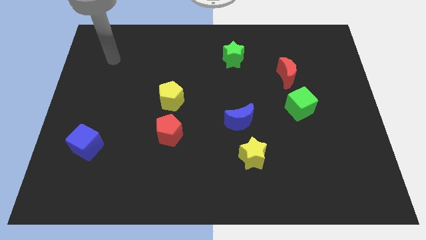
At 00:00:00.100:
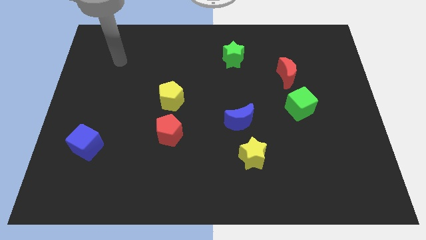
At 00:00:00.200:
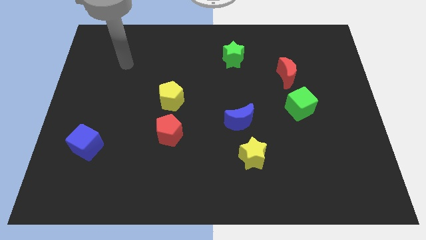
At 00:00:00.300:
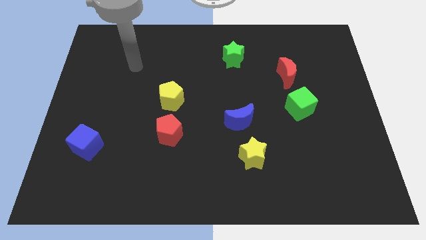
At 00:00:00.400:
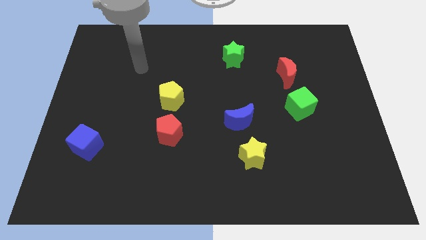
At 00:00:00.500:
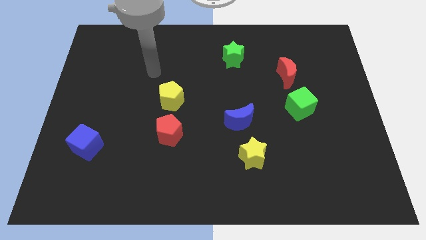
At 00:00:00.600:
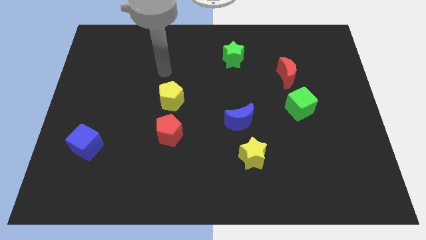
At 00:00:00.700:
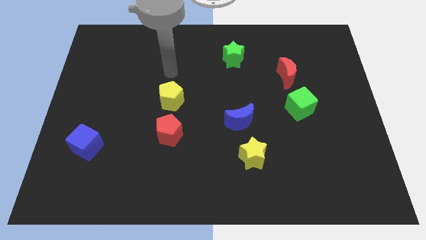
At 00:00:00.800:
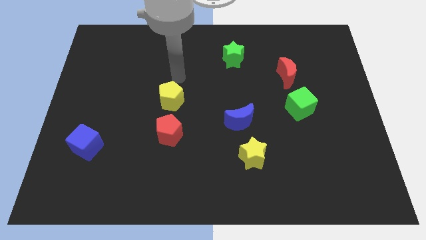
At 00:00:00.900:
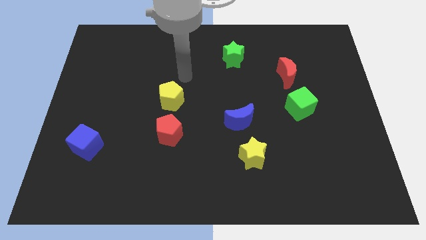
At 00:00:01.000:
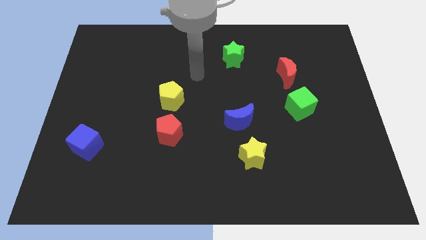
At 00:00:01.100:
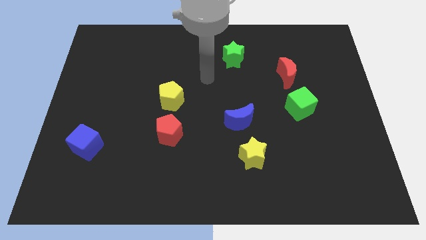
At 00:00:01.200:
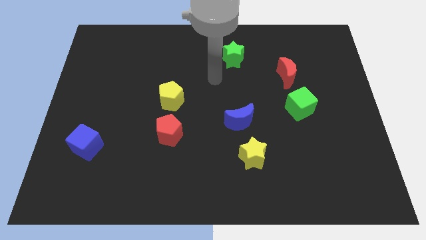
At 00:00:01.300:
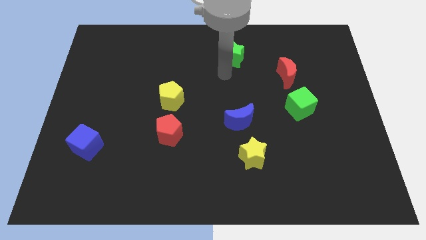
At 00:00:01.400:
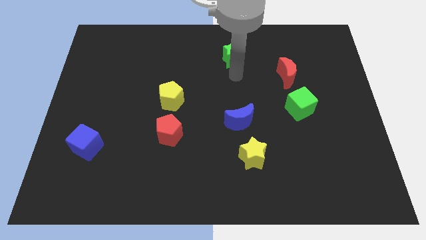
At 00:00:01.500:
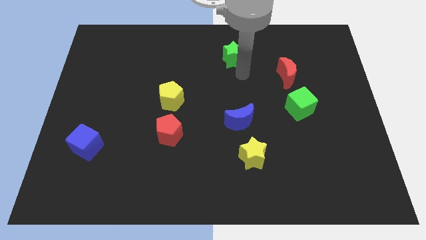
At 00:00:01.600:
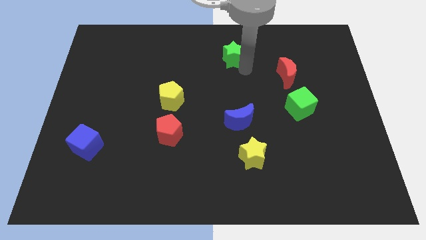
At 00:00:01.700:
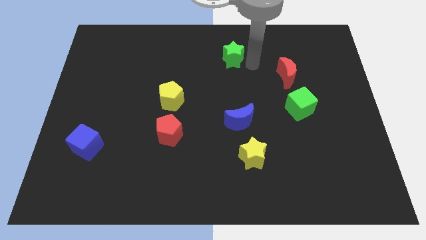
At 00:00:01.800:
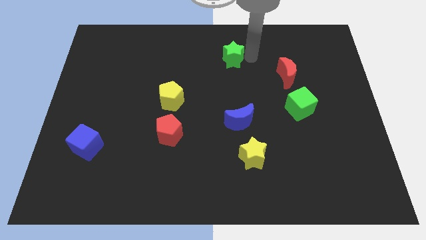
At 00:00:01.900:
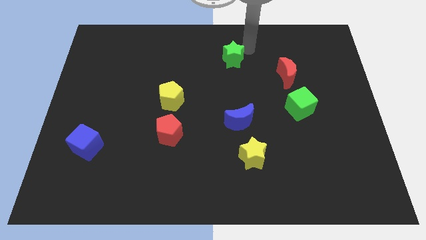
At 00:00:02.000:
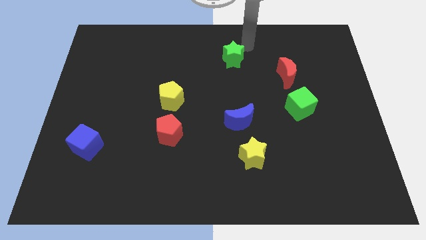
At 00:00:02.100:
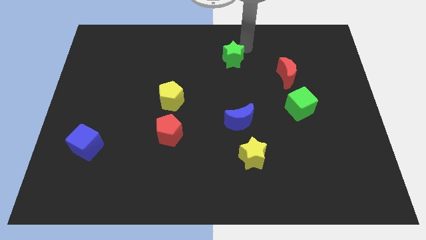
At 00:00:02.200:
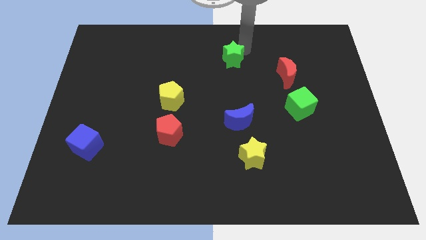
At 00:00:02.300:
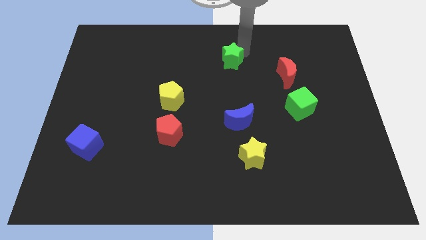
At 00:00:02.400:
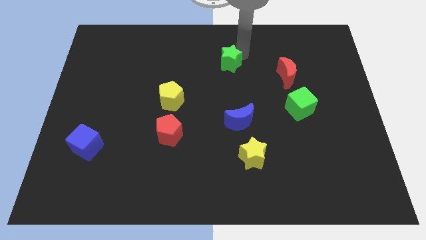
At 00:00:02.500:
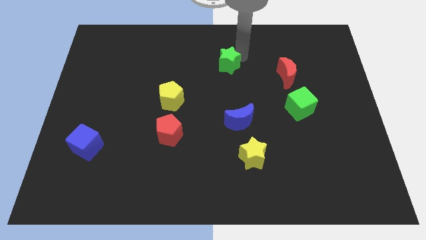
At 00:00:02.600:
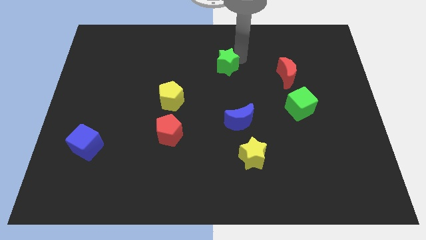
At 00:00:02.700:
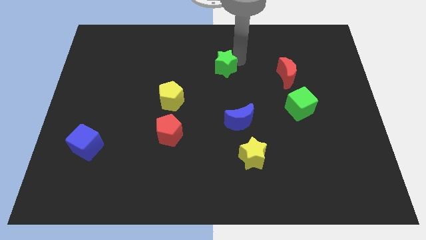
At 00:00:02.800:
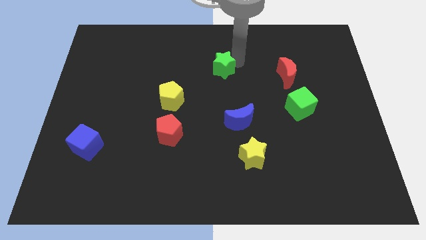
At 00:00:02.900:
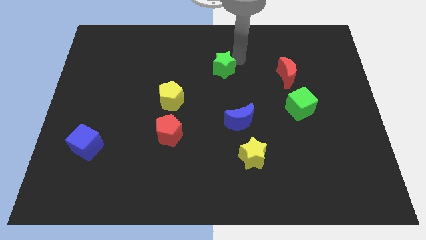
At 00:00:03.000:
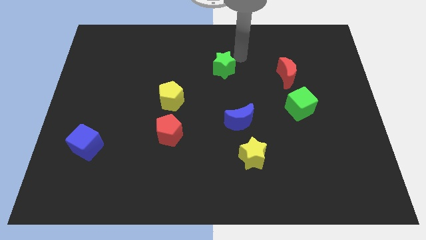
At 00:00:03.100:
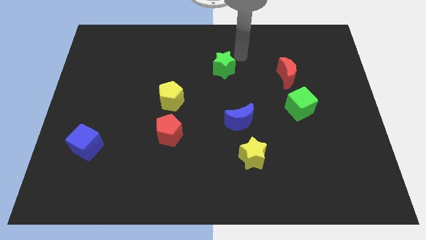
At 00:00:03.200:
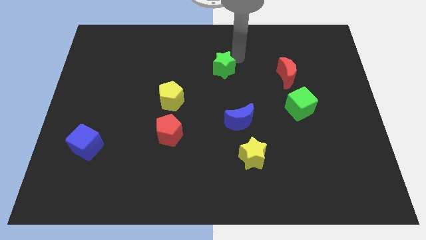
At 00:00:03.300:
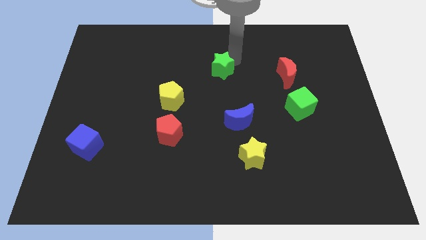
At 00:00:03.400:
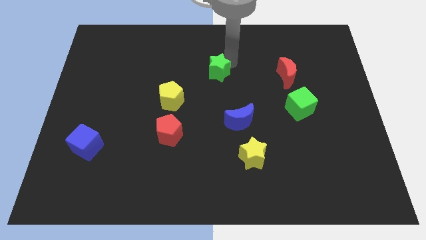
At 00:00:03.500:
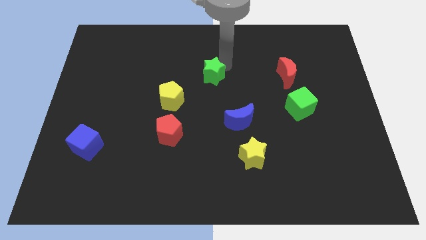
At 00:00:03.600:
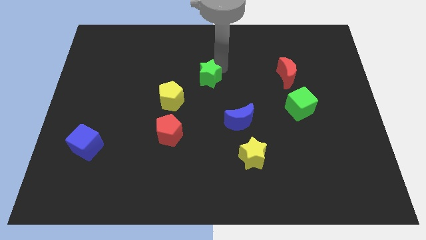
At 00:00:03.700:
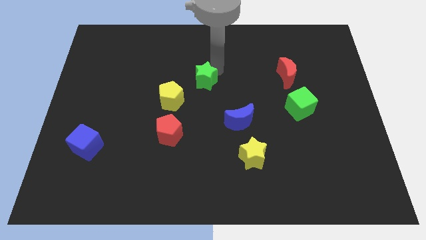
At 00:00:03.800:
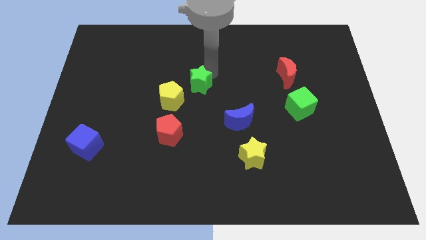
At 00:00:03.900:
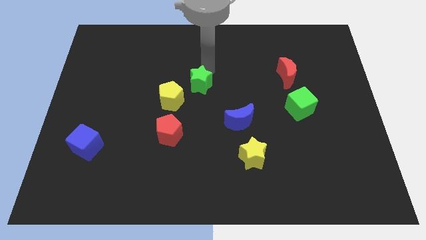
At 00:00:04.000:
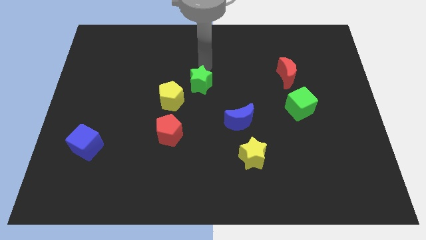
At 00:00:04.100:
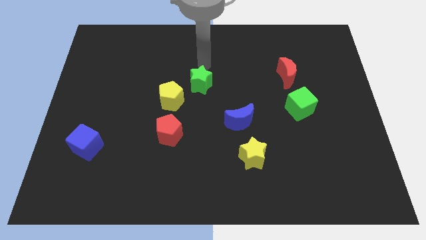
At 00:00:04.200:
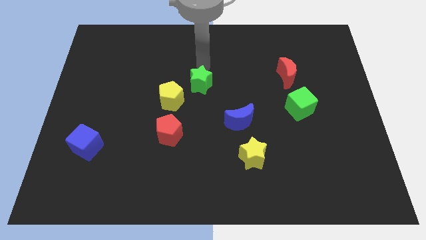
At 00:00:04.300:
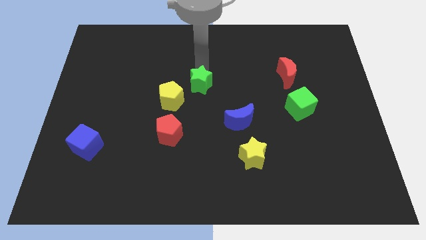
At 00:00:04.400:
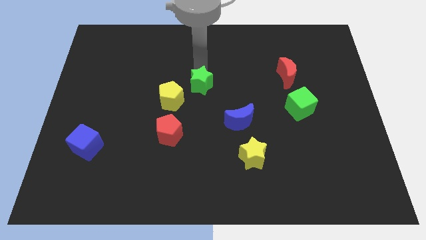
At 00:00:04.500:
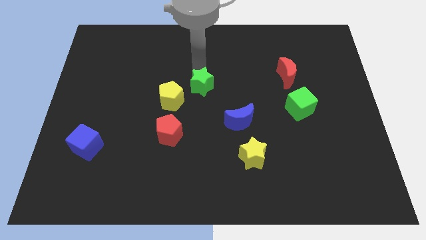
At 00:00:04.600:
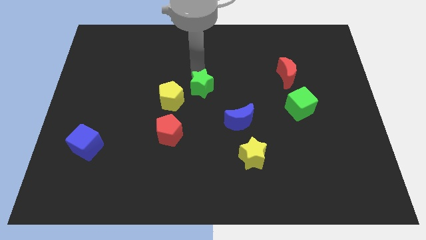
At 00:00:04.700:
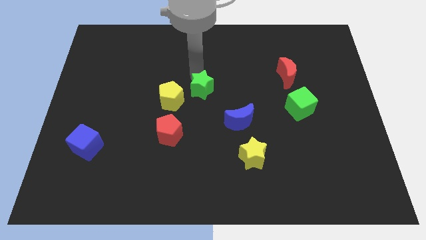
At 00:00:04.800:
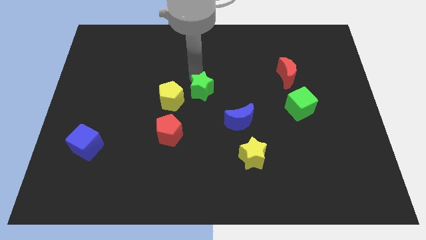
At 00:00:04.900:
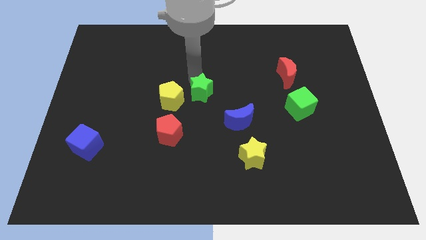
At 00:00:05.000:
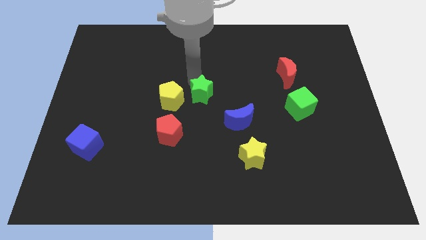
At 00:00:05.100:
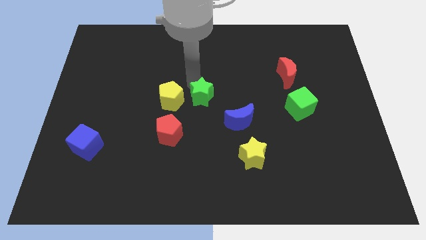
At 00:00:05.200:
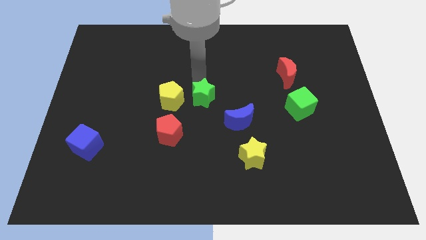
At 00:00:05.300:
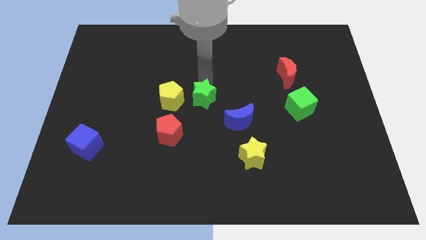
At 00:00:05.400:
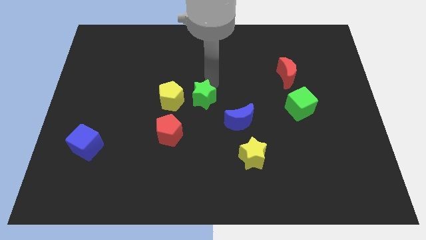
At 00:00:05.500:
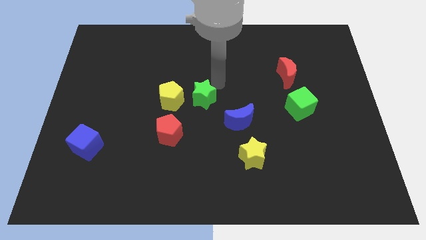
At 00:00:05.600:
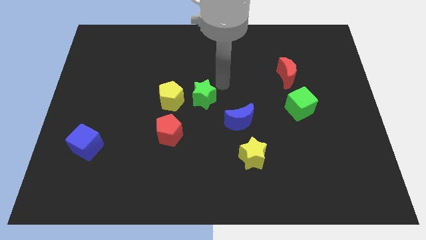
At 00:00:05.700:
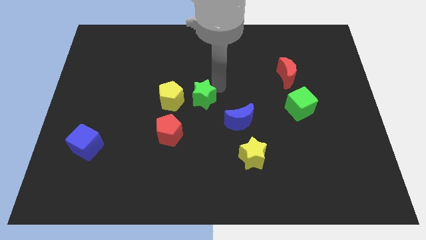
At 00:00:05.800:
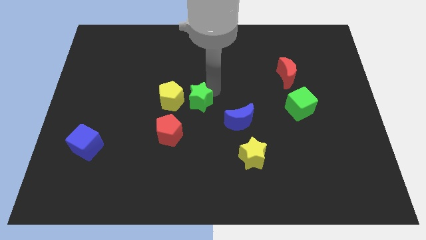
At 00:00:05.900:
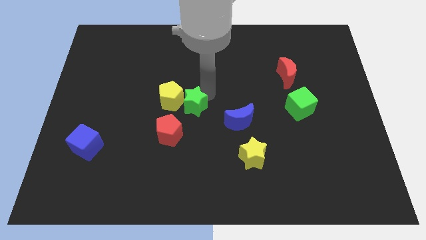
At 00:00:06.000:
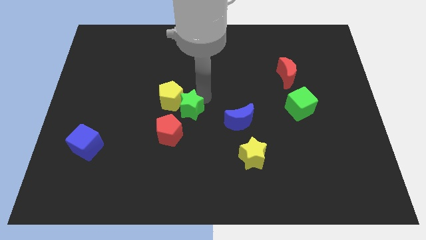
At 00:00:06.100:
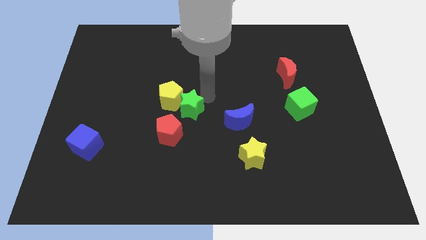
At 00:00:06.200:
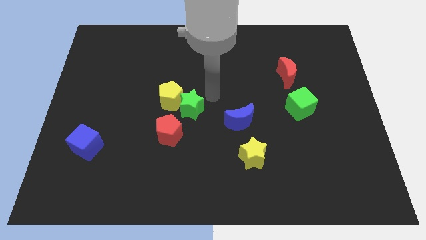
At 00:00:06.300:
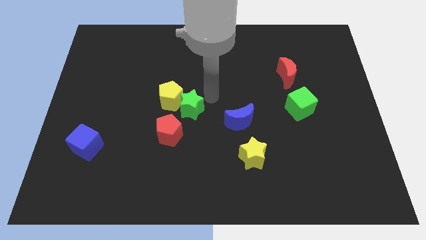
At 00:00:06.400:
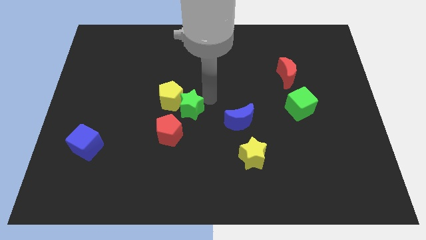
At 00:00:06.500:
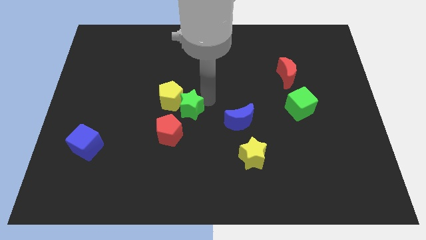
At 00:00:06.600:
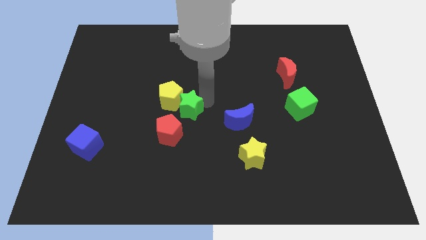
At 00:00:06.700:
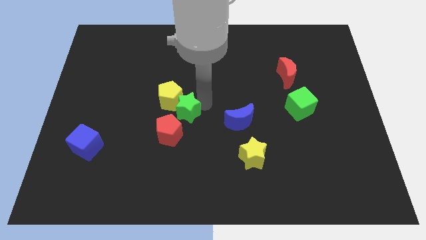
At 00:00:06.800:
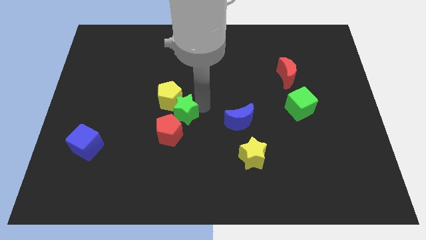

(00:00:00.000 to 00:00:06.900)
slide the green star down and then to the left

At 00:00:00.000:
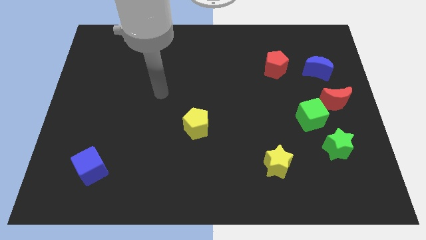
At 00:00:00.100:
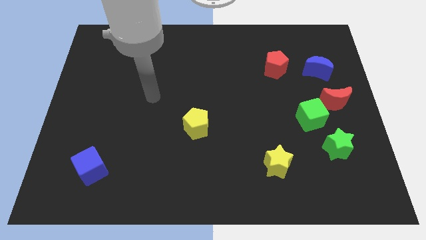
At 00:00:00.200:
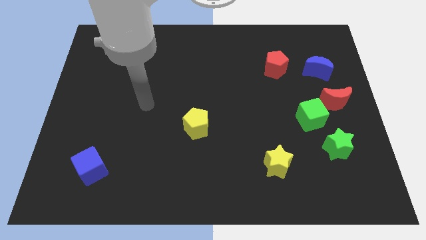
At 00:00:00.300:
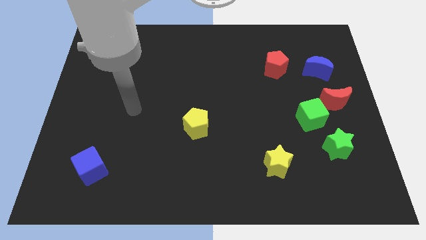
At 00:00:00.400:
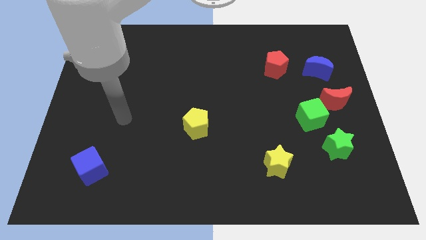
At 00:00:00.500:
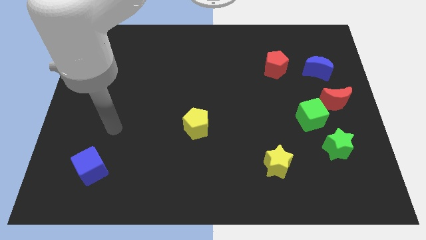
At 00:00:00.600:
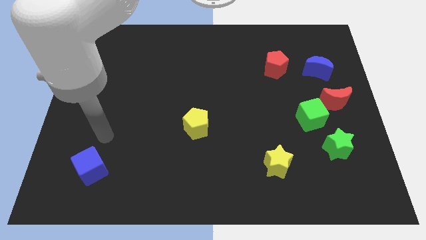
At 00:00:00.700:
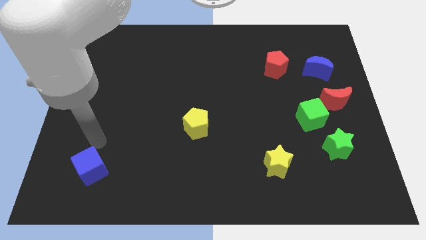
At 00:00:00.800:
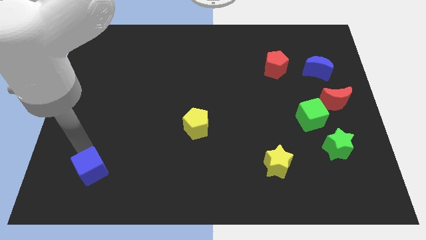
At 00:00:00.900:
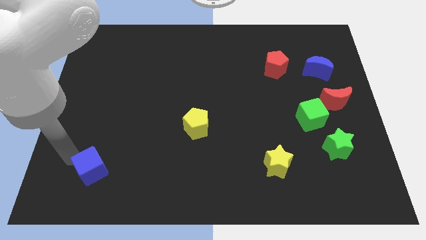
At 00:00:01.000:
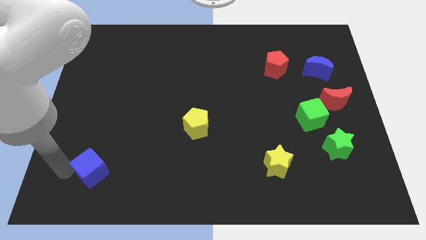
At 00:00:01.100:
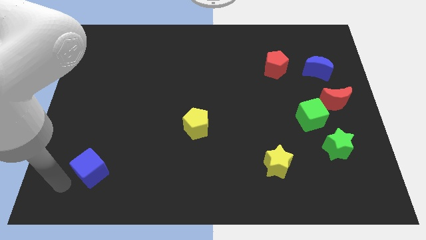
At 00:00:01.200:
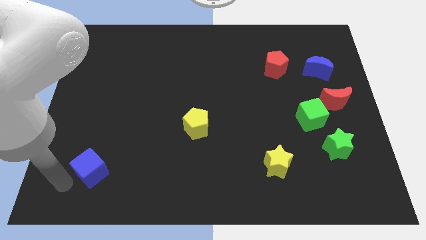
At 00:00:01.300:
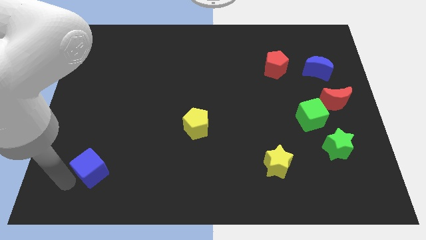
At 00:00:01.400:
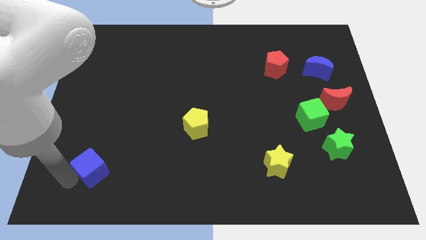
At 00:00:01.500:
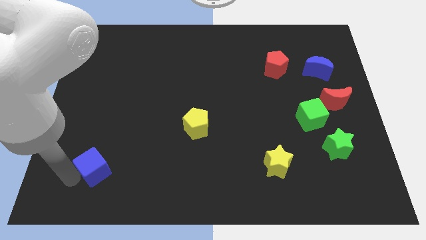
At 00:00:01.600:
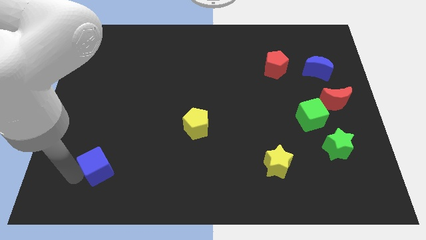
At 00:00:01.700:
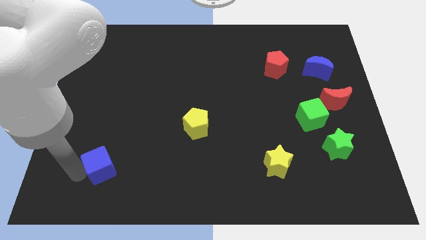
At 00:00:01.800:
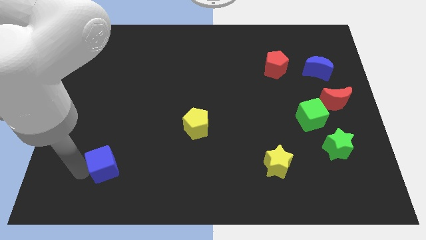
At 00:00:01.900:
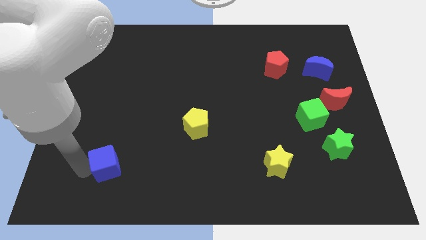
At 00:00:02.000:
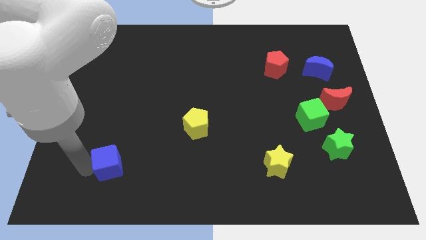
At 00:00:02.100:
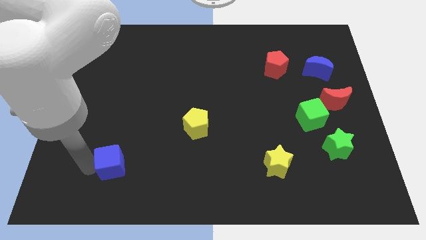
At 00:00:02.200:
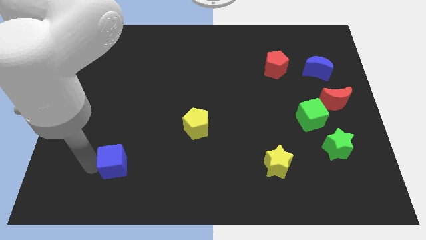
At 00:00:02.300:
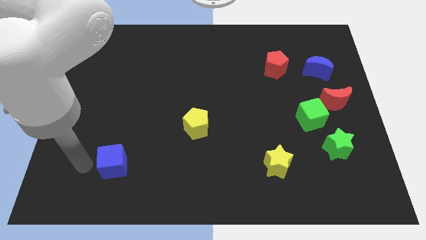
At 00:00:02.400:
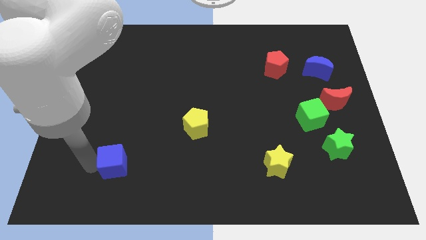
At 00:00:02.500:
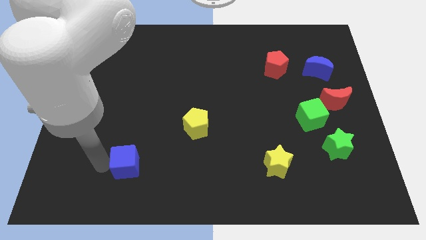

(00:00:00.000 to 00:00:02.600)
slightly slide the blue cube right
